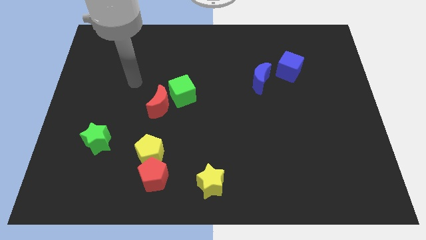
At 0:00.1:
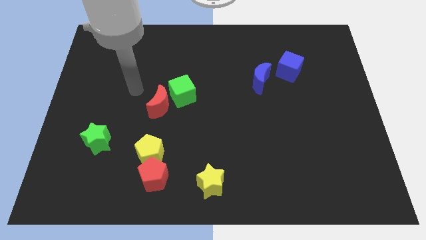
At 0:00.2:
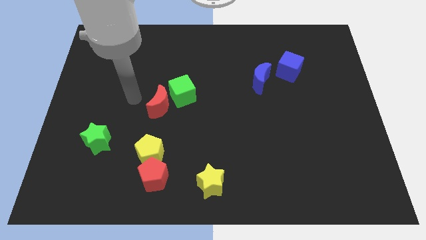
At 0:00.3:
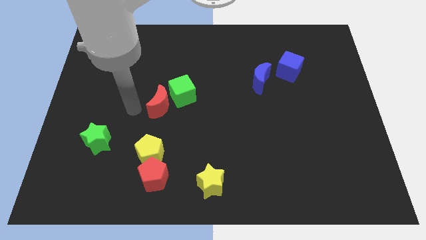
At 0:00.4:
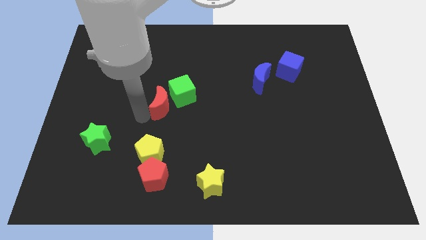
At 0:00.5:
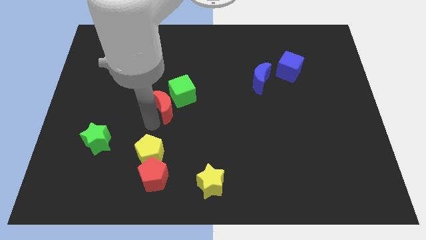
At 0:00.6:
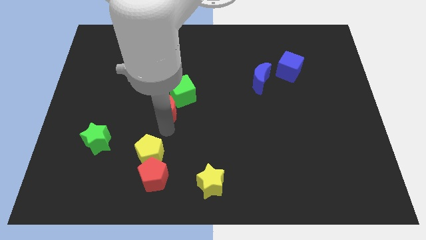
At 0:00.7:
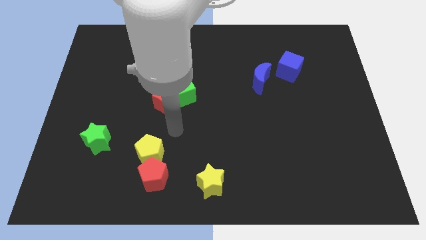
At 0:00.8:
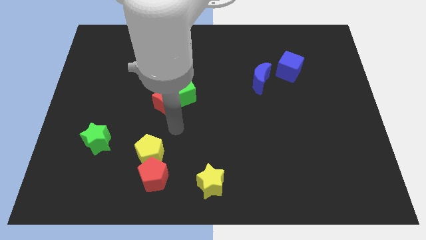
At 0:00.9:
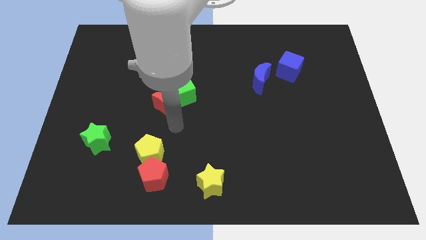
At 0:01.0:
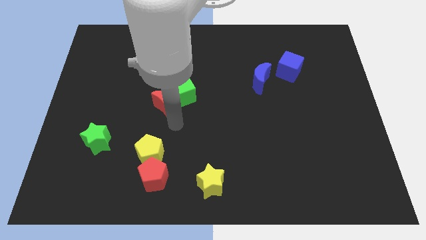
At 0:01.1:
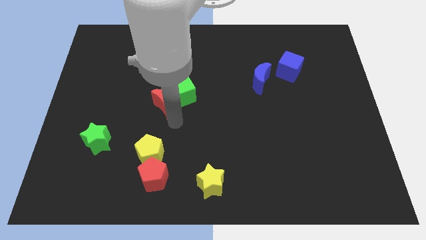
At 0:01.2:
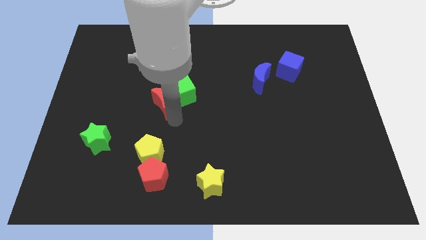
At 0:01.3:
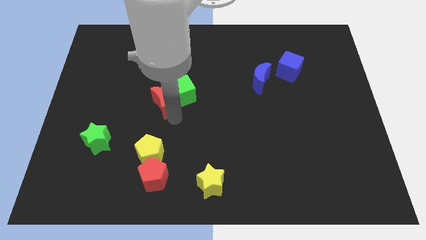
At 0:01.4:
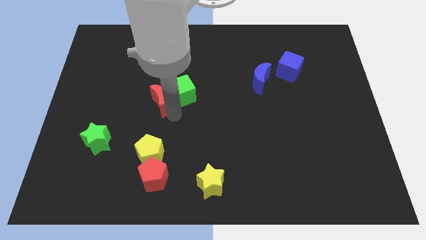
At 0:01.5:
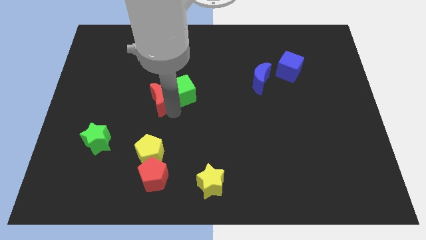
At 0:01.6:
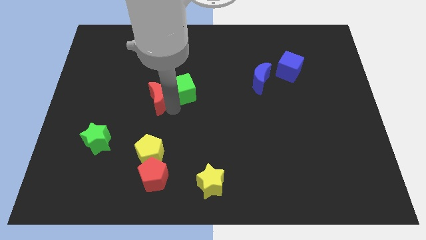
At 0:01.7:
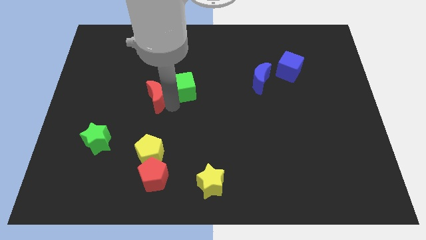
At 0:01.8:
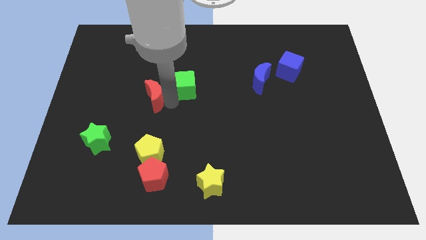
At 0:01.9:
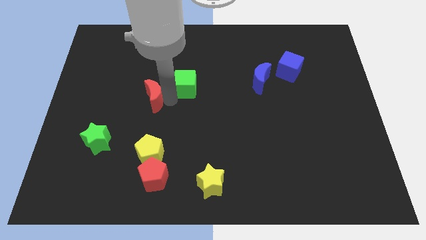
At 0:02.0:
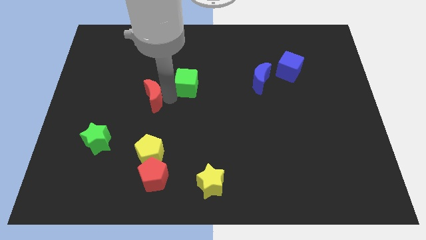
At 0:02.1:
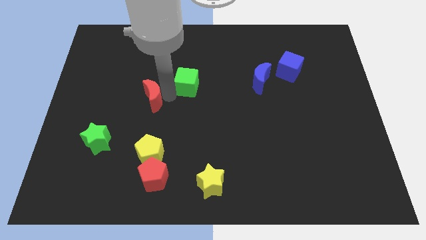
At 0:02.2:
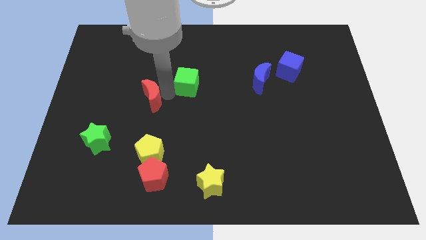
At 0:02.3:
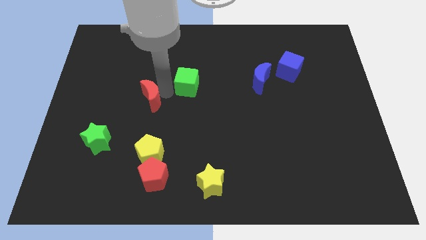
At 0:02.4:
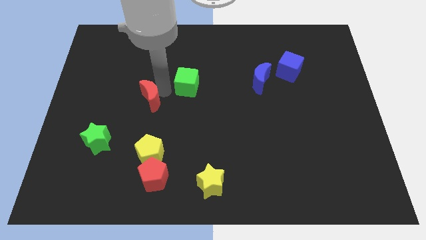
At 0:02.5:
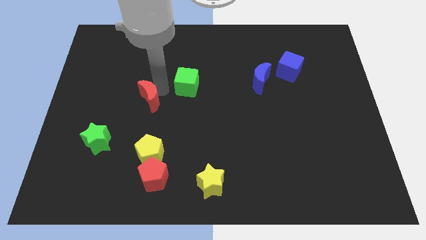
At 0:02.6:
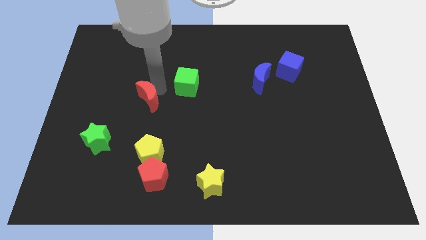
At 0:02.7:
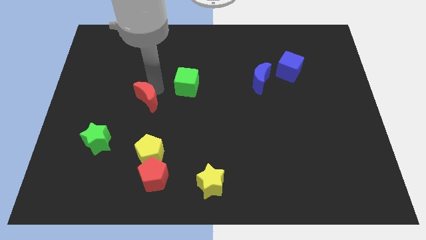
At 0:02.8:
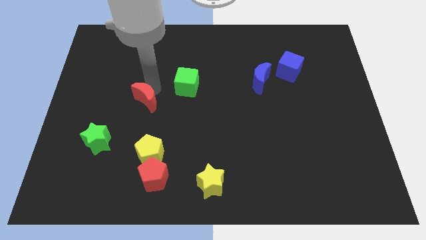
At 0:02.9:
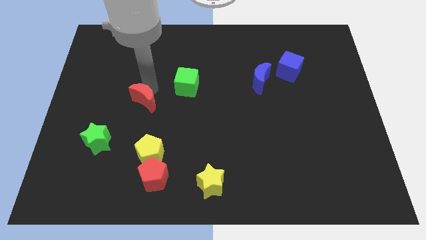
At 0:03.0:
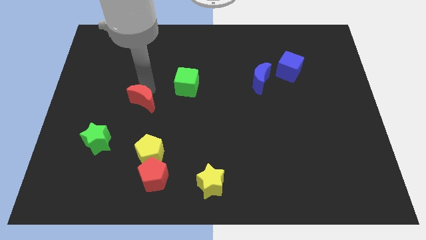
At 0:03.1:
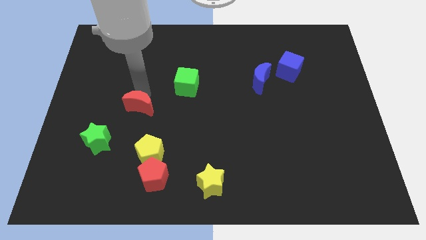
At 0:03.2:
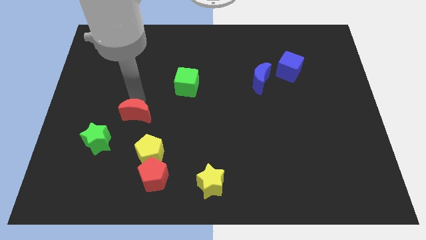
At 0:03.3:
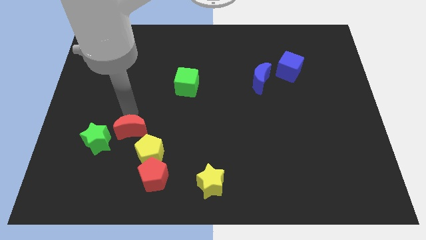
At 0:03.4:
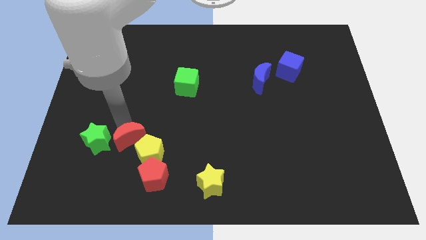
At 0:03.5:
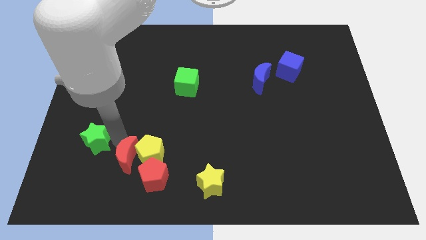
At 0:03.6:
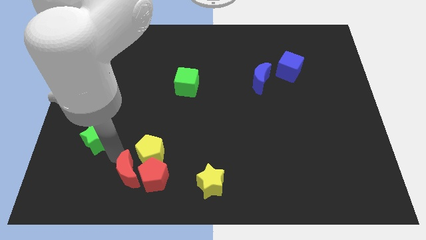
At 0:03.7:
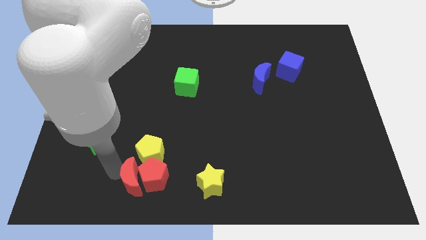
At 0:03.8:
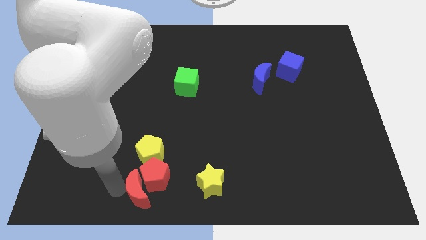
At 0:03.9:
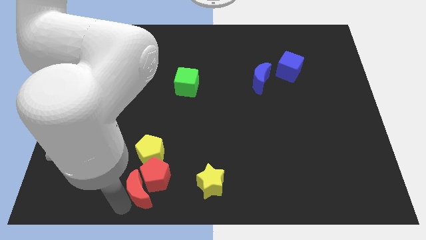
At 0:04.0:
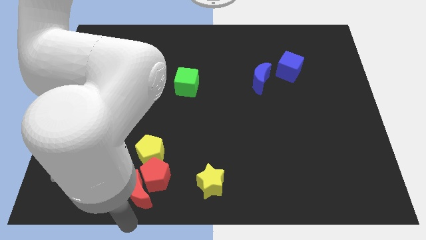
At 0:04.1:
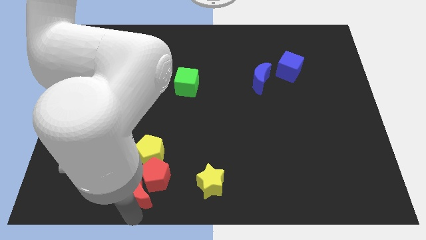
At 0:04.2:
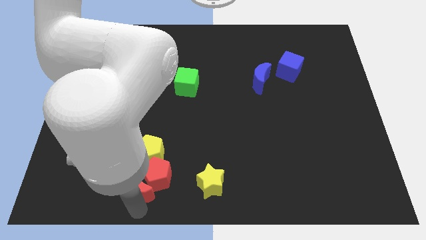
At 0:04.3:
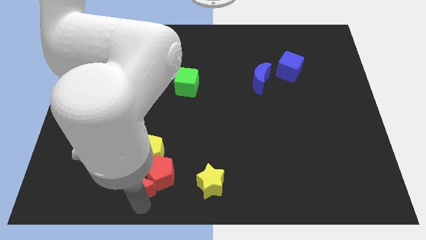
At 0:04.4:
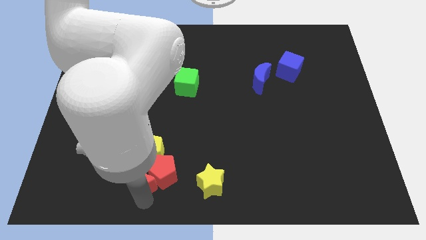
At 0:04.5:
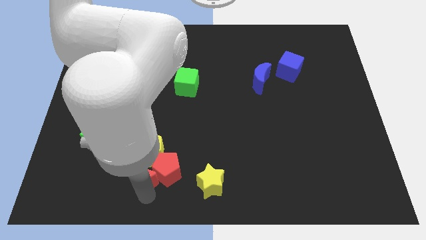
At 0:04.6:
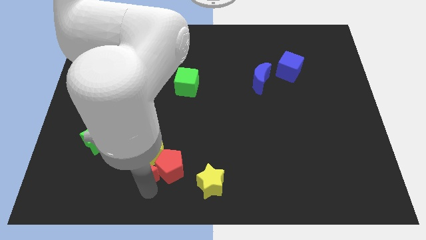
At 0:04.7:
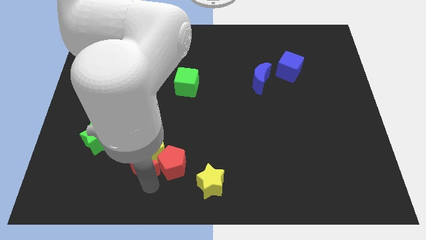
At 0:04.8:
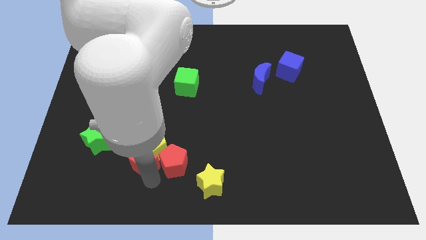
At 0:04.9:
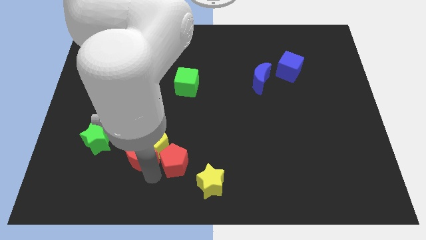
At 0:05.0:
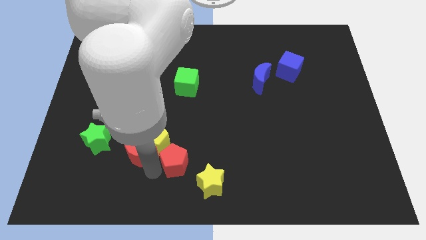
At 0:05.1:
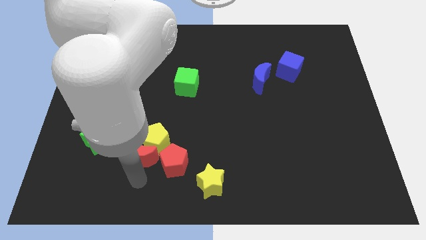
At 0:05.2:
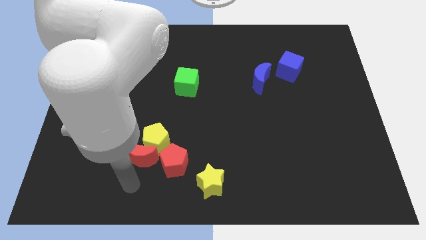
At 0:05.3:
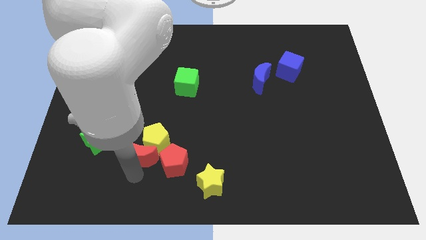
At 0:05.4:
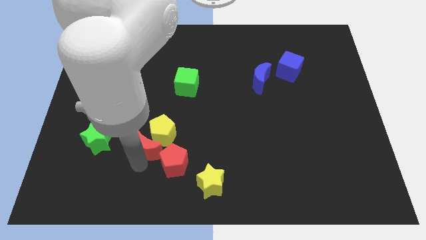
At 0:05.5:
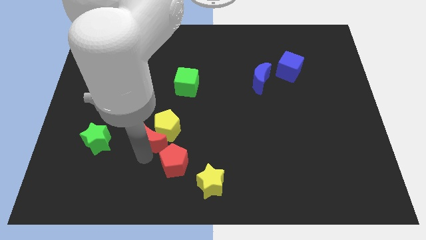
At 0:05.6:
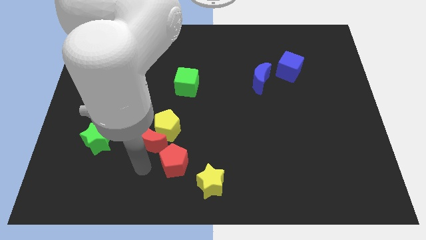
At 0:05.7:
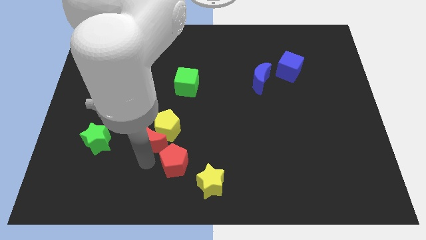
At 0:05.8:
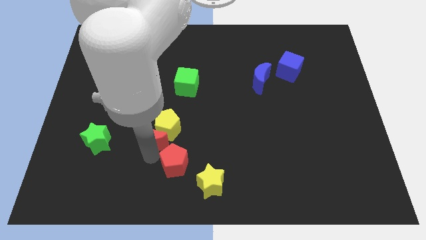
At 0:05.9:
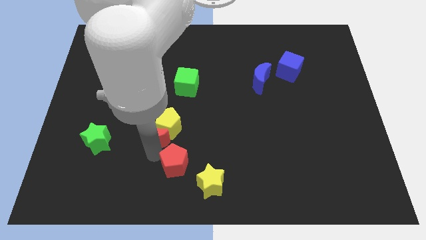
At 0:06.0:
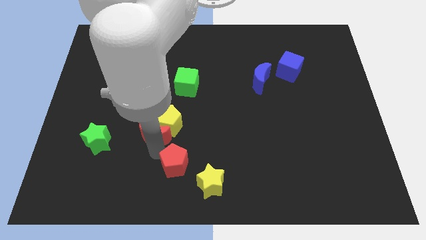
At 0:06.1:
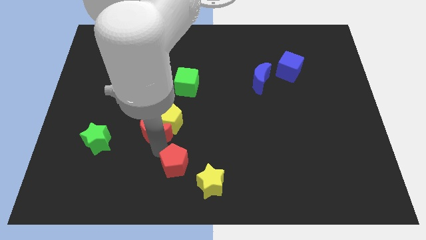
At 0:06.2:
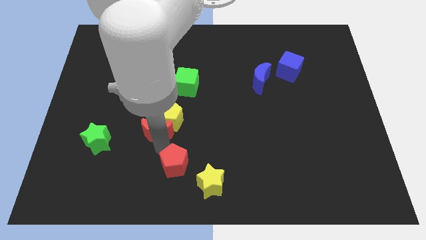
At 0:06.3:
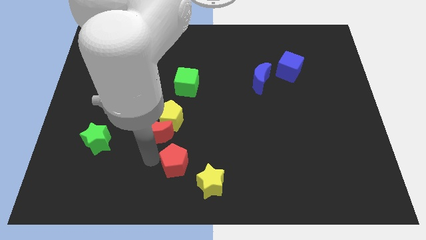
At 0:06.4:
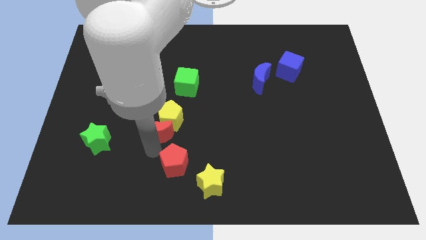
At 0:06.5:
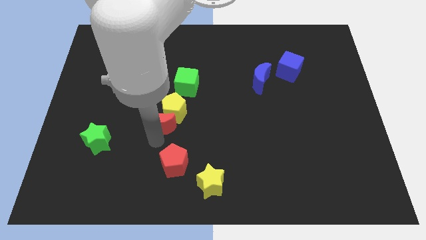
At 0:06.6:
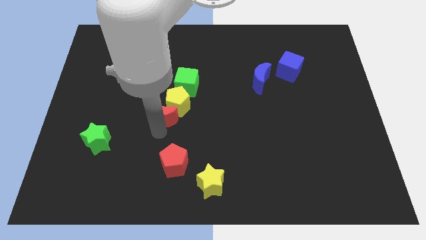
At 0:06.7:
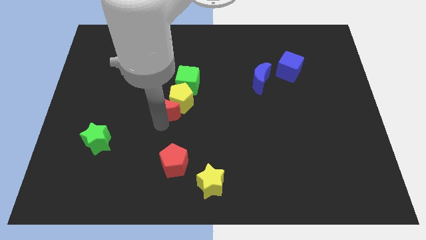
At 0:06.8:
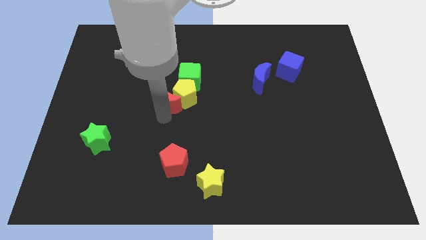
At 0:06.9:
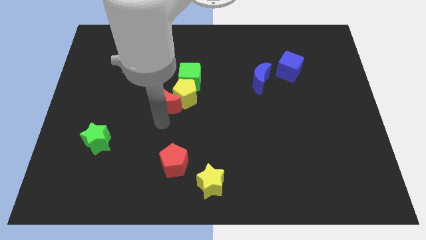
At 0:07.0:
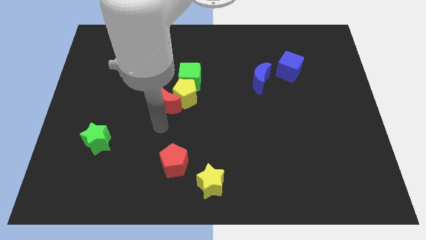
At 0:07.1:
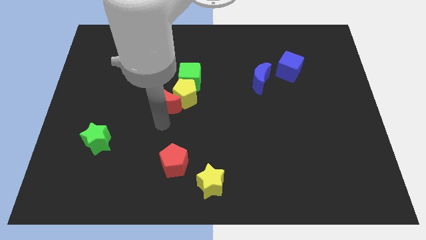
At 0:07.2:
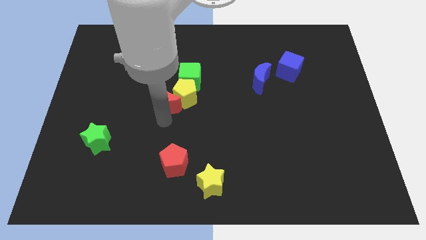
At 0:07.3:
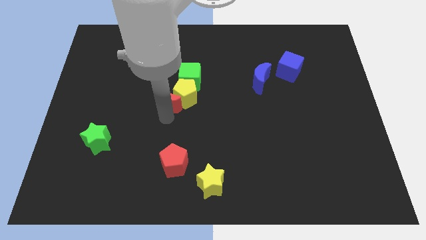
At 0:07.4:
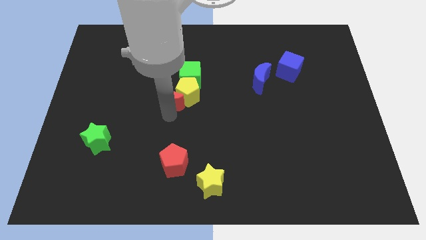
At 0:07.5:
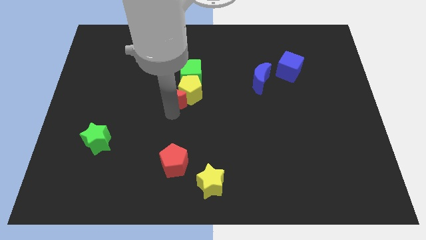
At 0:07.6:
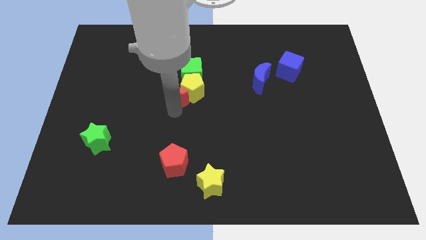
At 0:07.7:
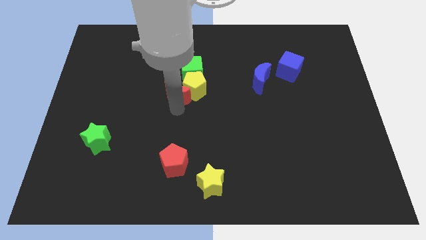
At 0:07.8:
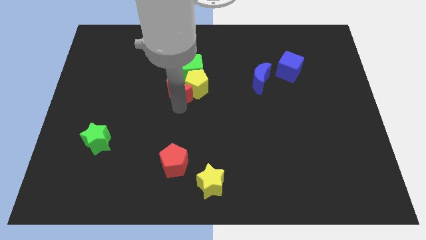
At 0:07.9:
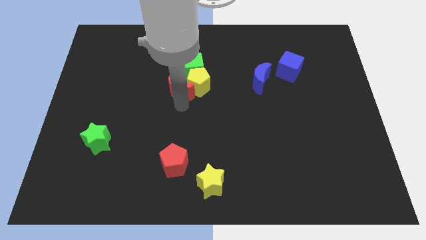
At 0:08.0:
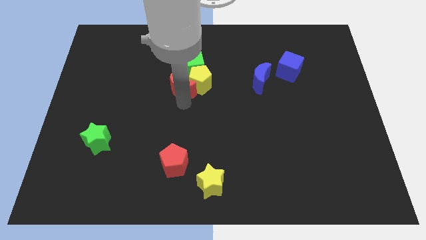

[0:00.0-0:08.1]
move the red moon up and to the right a little
